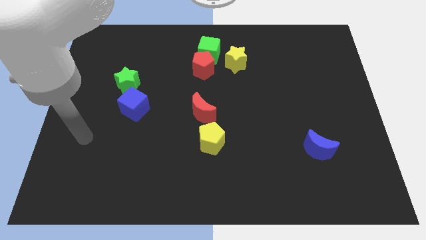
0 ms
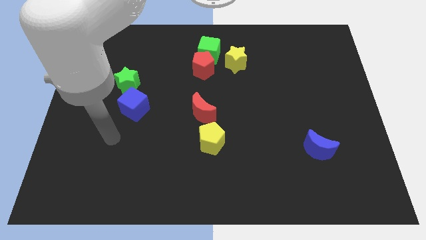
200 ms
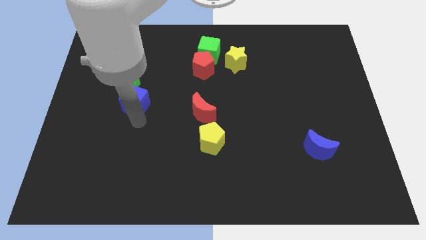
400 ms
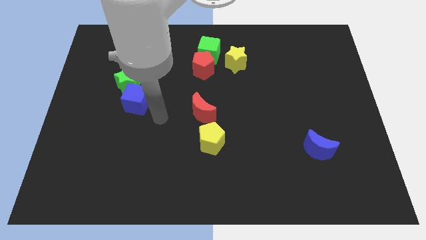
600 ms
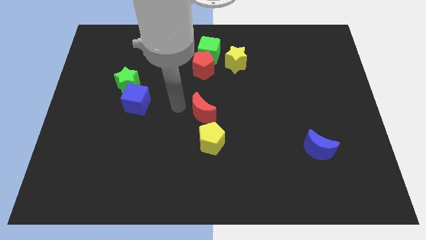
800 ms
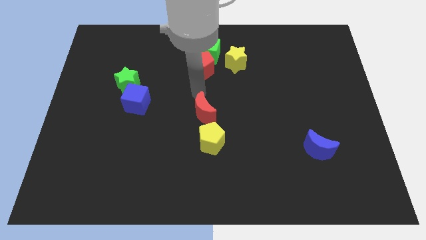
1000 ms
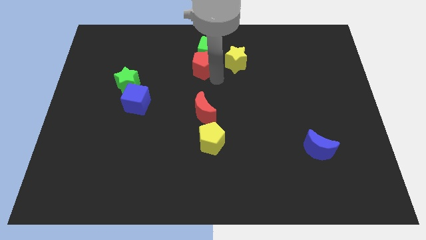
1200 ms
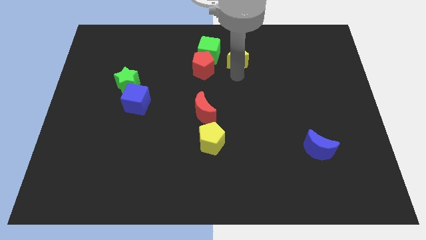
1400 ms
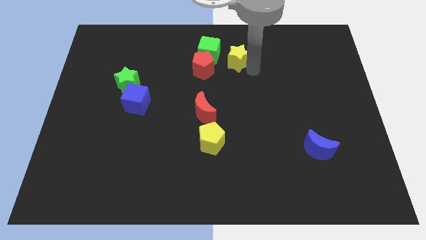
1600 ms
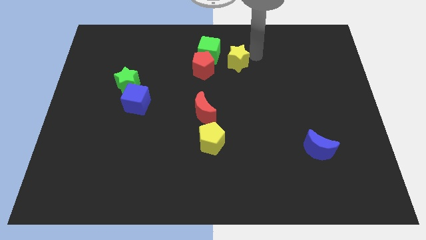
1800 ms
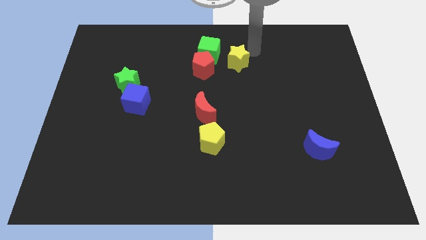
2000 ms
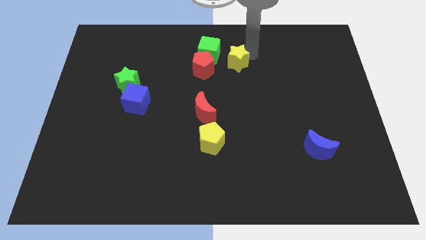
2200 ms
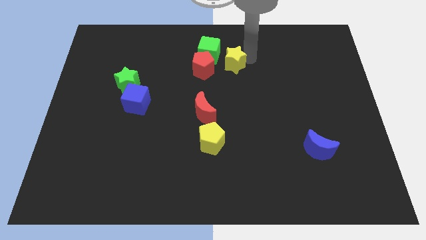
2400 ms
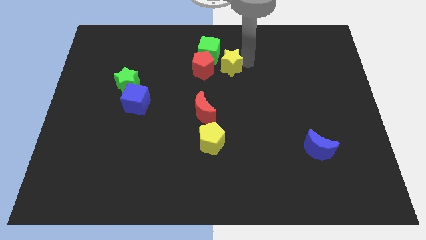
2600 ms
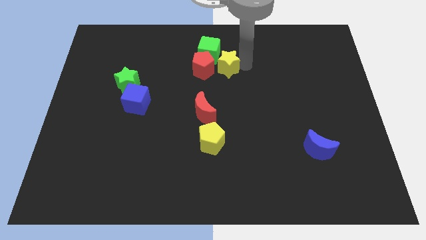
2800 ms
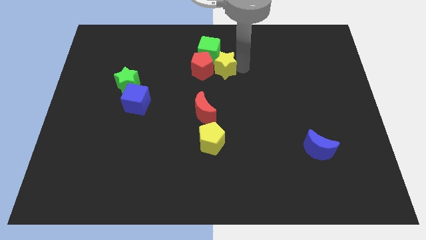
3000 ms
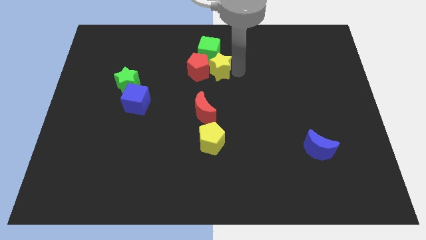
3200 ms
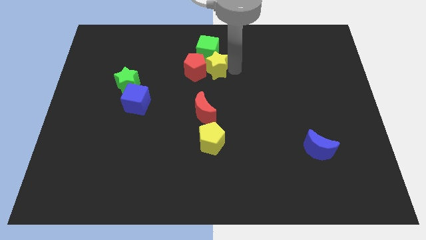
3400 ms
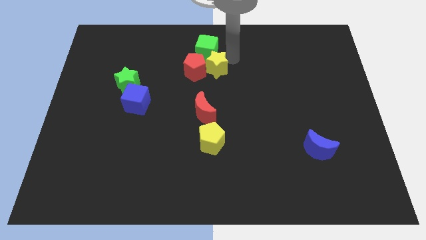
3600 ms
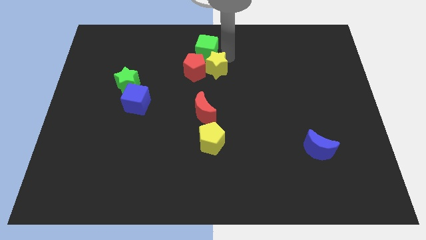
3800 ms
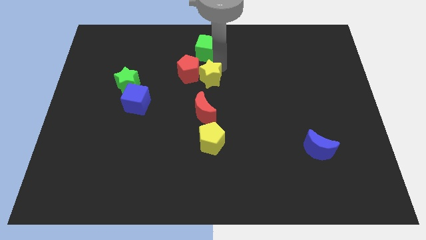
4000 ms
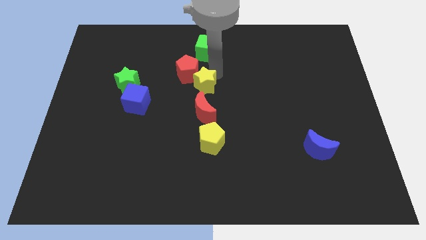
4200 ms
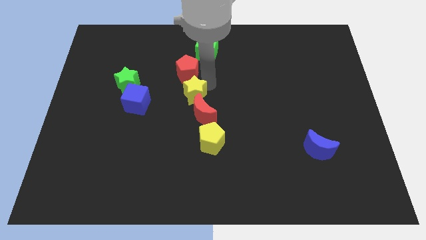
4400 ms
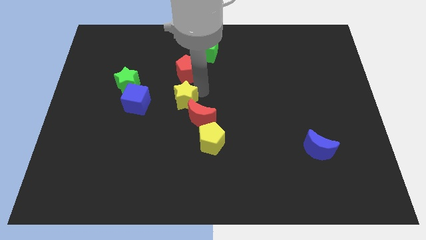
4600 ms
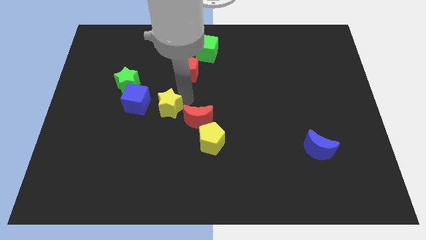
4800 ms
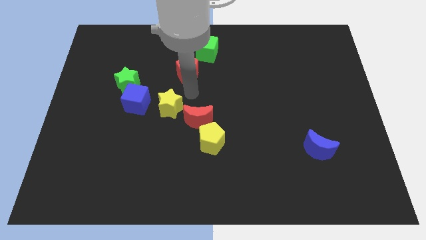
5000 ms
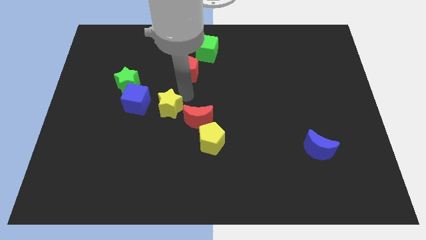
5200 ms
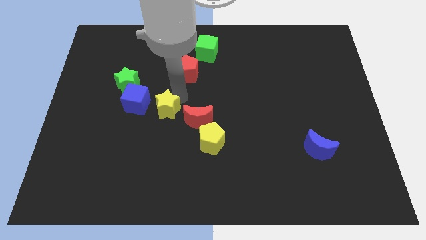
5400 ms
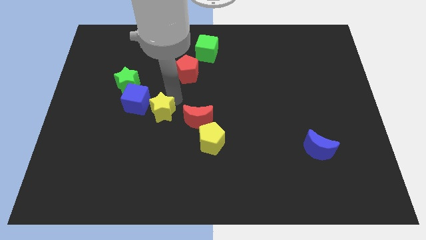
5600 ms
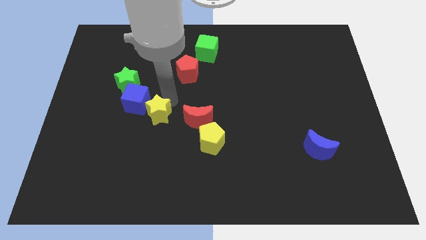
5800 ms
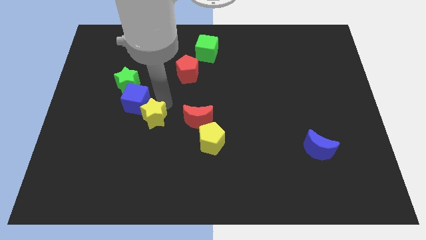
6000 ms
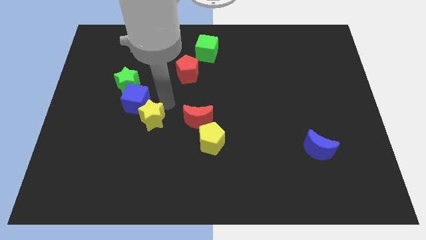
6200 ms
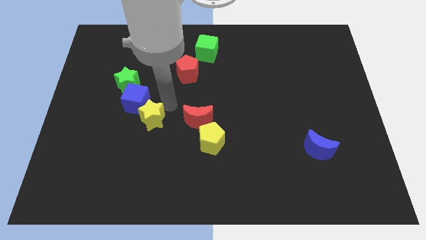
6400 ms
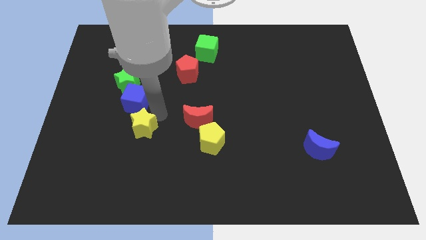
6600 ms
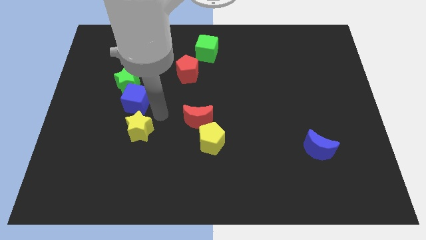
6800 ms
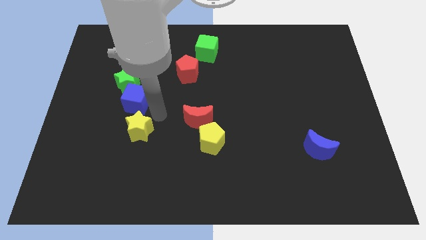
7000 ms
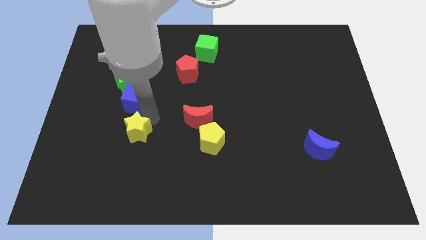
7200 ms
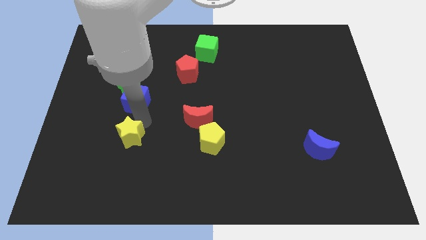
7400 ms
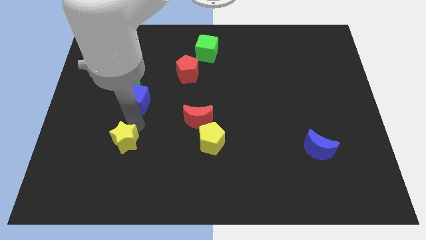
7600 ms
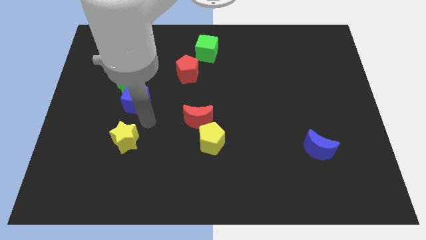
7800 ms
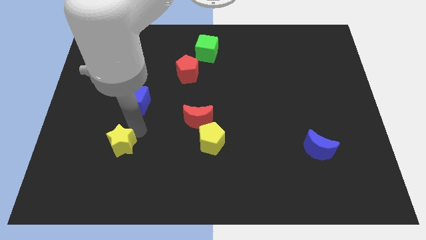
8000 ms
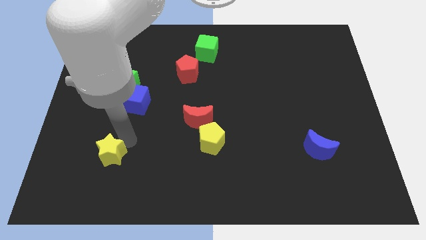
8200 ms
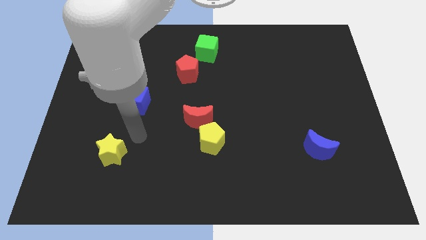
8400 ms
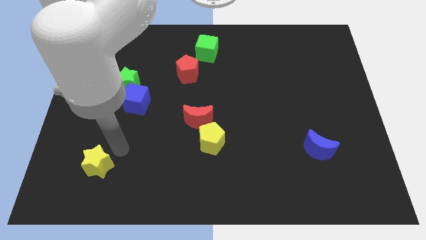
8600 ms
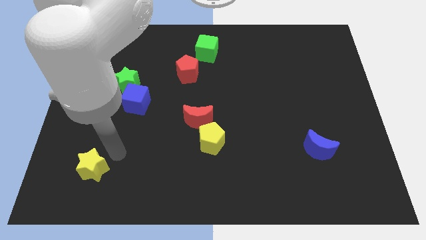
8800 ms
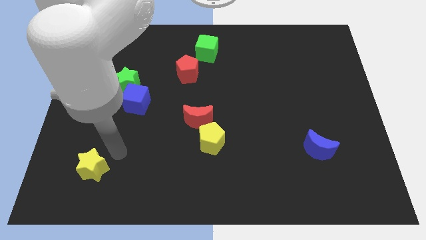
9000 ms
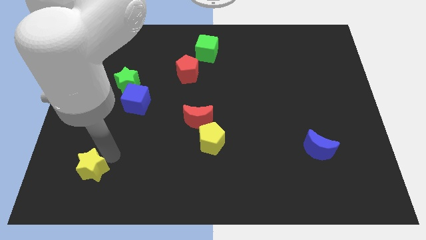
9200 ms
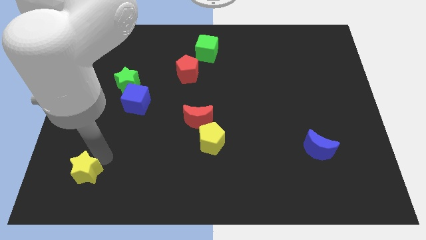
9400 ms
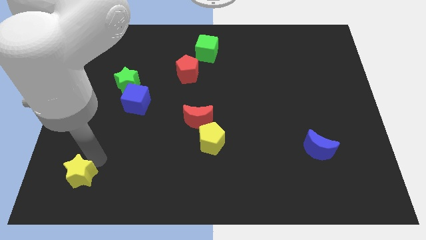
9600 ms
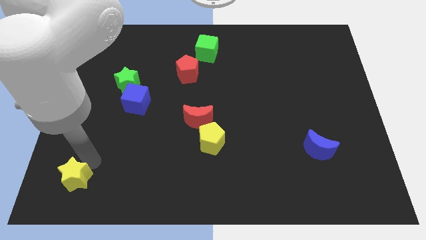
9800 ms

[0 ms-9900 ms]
push the yellow star to the bottom left corner

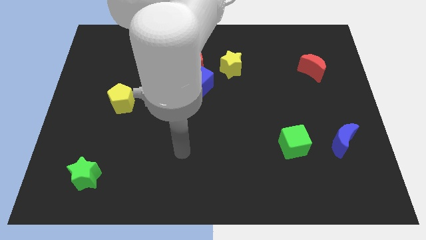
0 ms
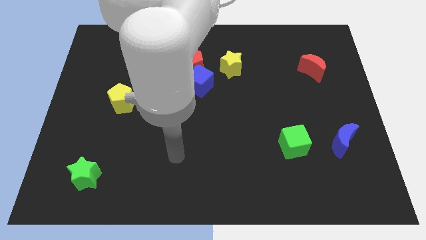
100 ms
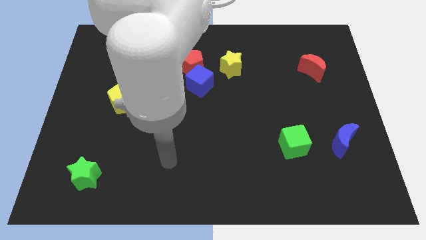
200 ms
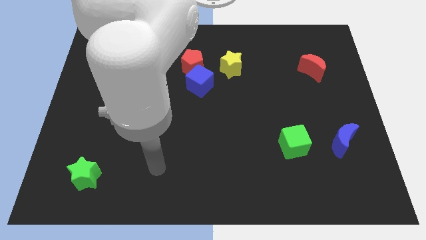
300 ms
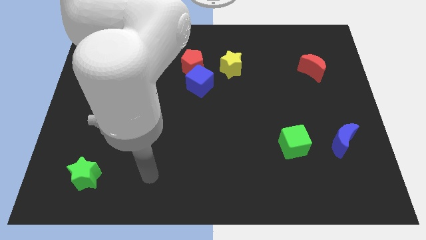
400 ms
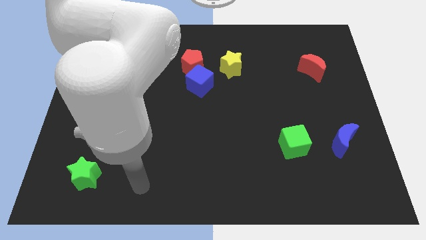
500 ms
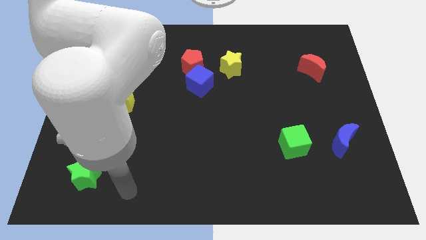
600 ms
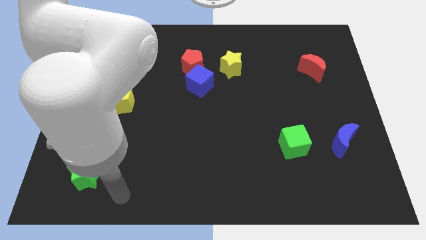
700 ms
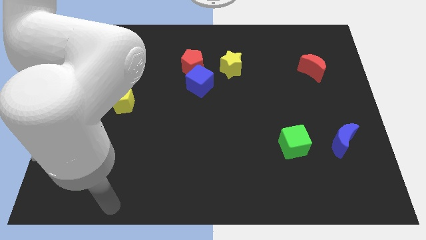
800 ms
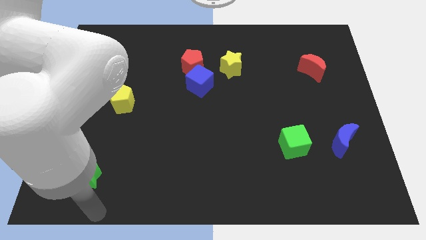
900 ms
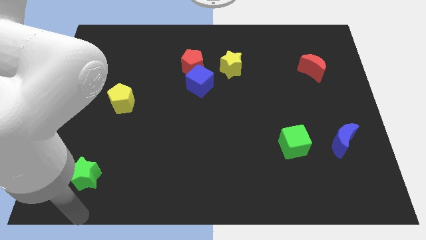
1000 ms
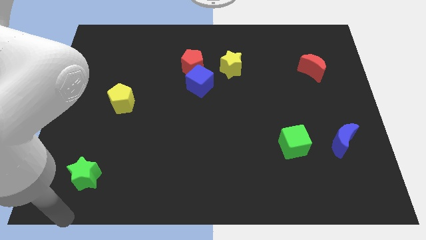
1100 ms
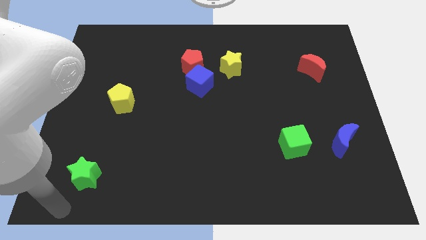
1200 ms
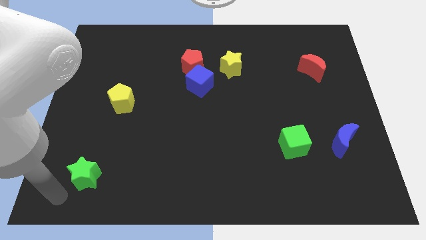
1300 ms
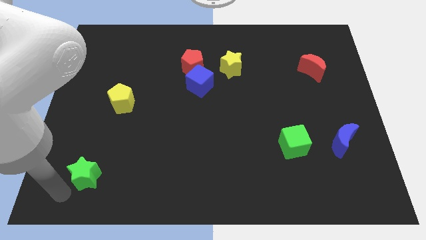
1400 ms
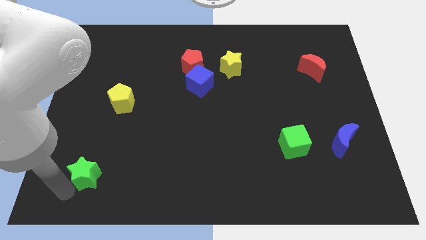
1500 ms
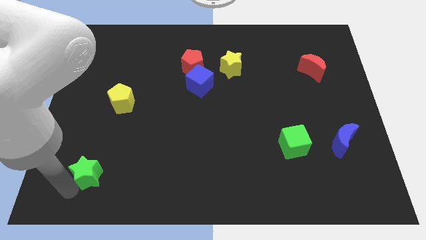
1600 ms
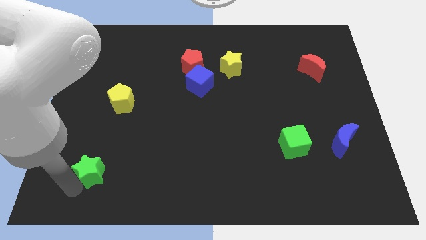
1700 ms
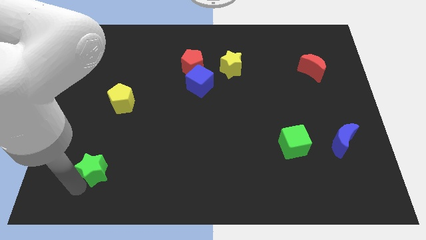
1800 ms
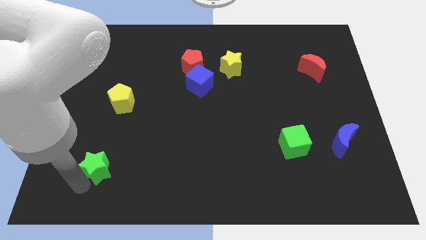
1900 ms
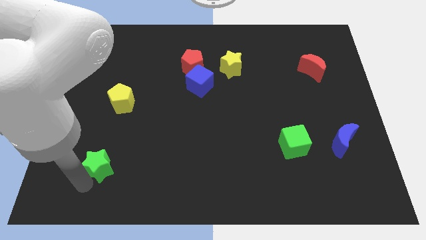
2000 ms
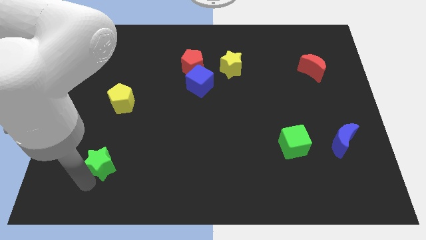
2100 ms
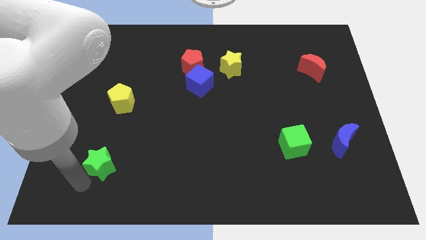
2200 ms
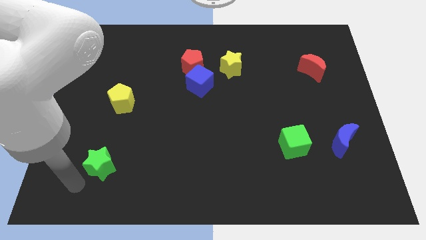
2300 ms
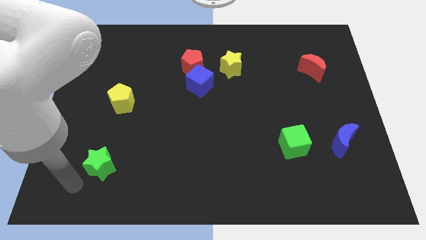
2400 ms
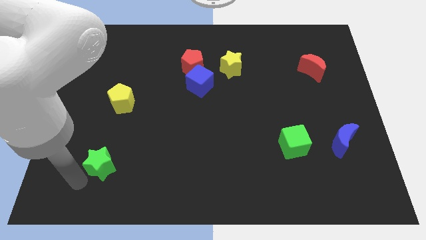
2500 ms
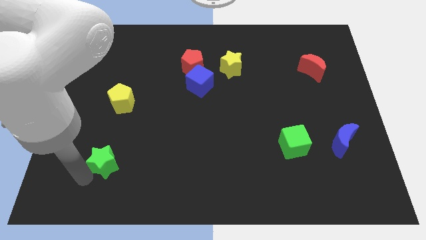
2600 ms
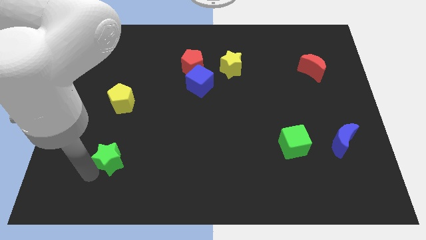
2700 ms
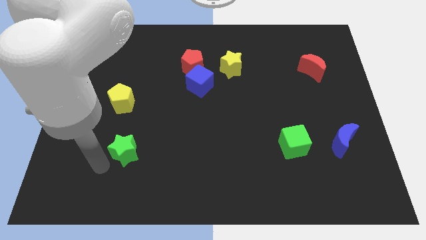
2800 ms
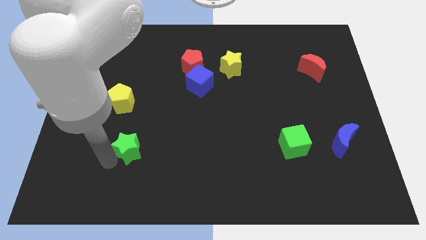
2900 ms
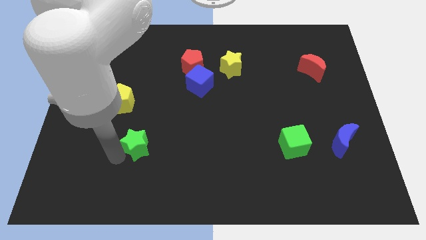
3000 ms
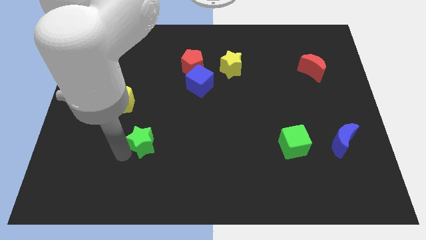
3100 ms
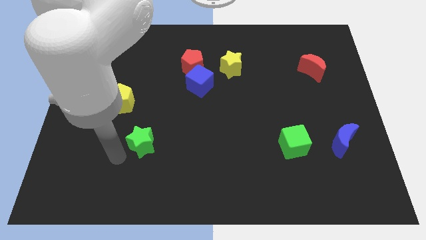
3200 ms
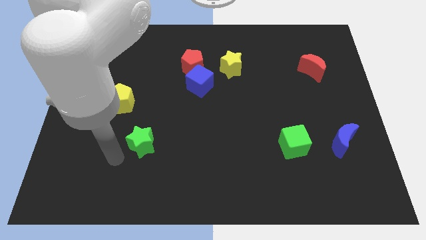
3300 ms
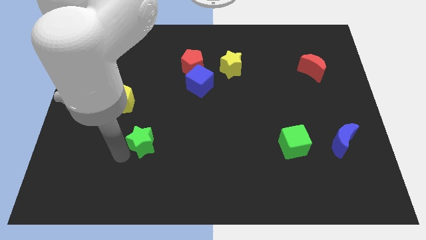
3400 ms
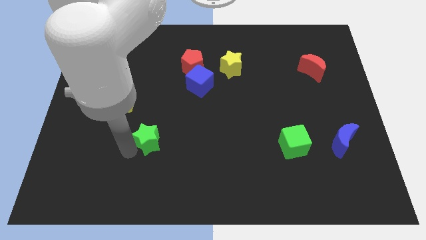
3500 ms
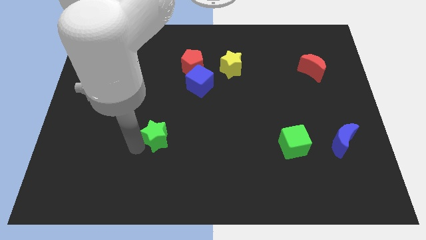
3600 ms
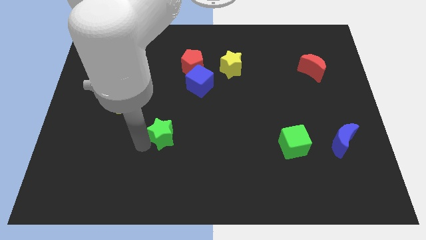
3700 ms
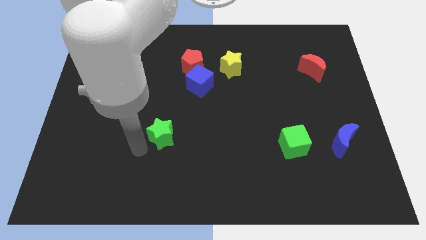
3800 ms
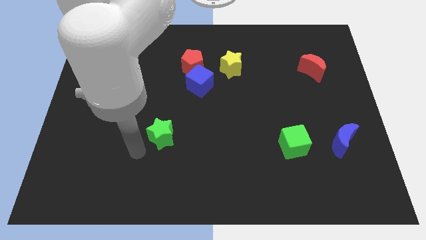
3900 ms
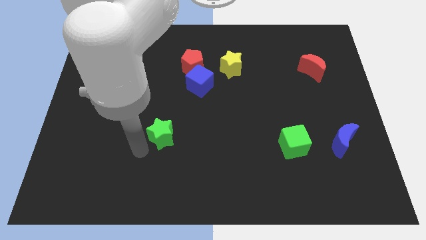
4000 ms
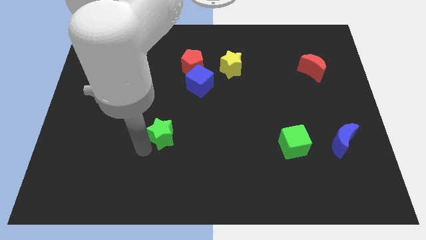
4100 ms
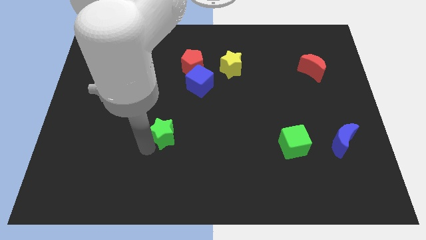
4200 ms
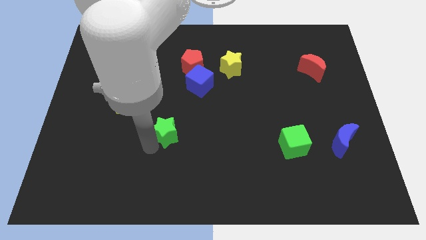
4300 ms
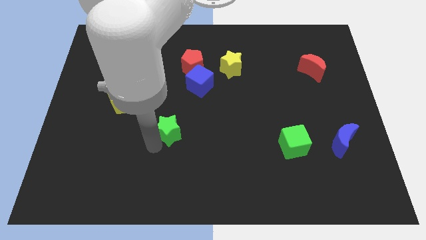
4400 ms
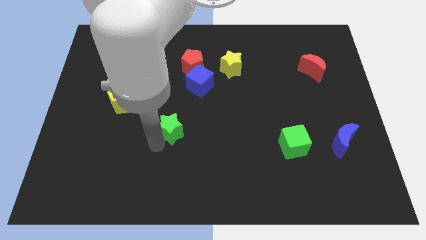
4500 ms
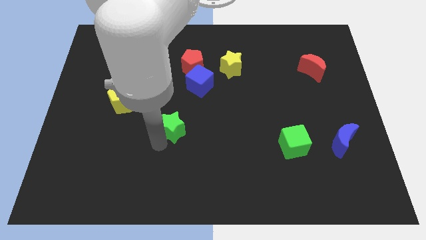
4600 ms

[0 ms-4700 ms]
slide the green star to the middle of the board
